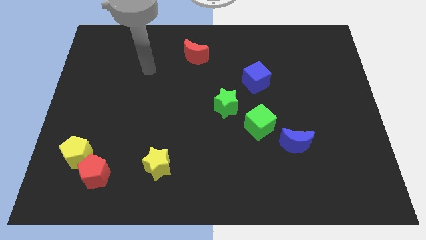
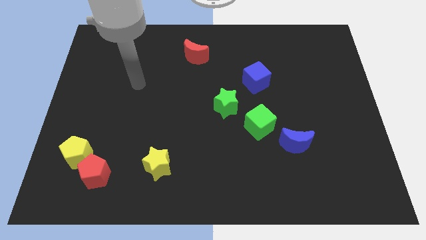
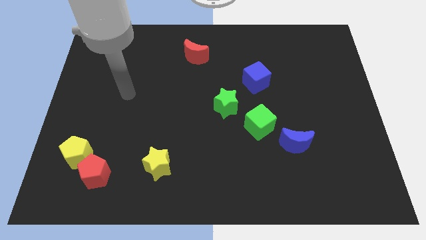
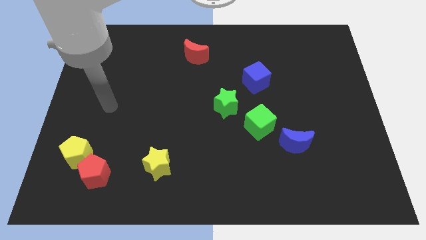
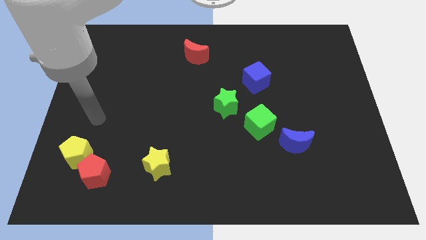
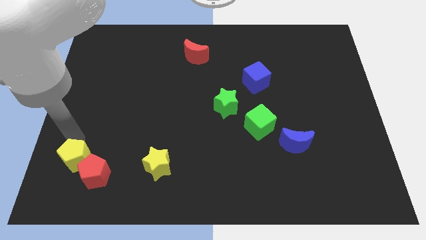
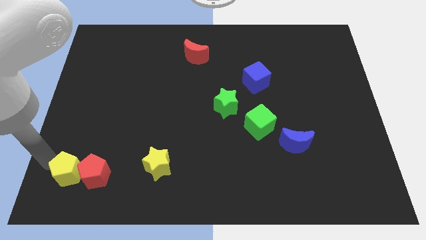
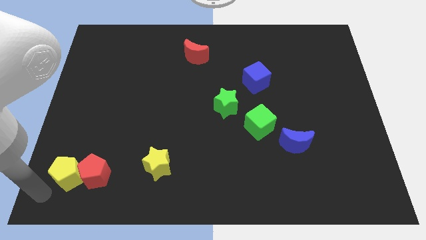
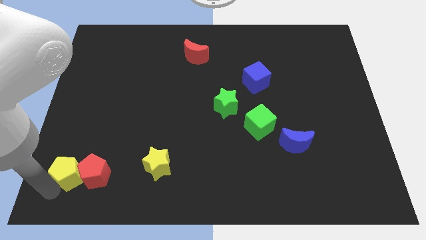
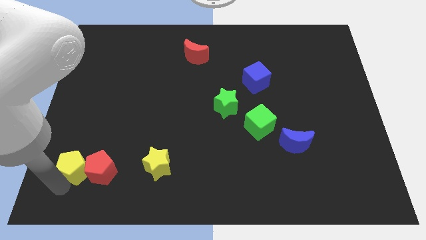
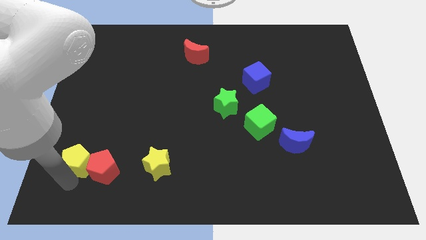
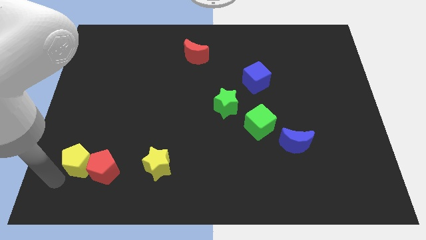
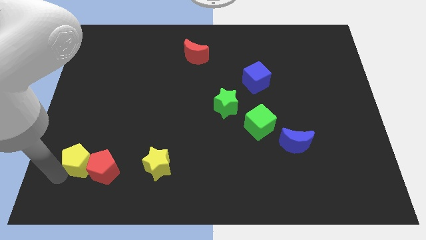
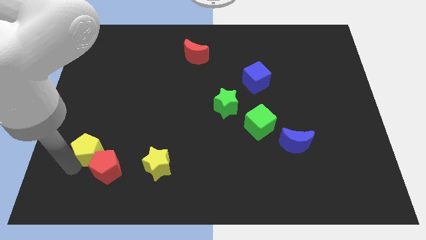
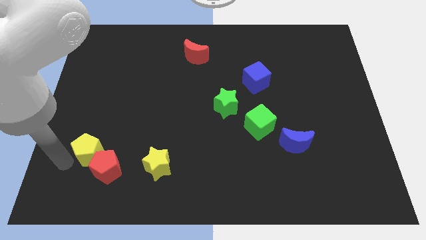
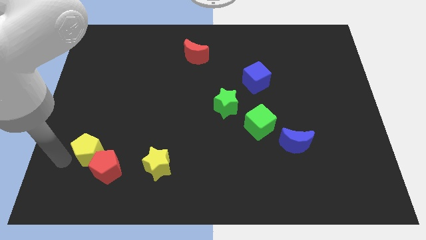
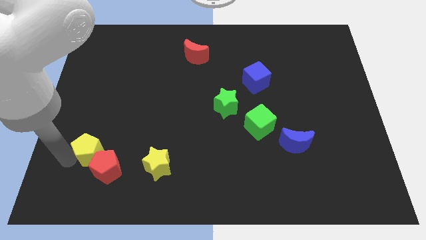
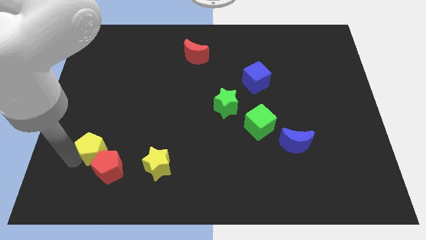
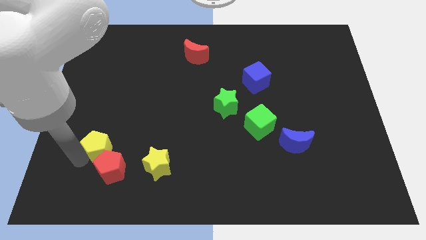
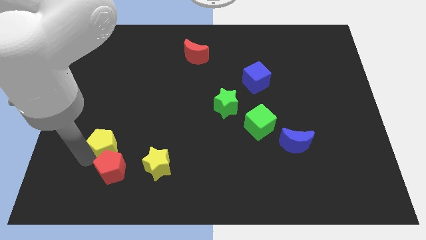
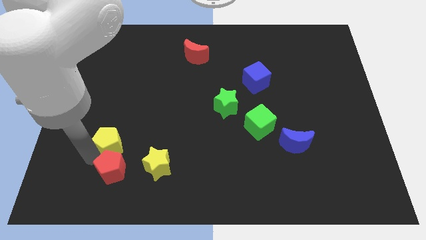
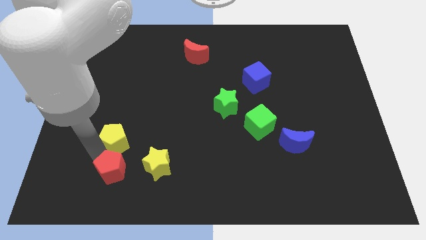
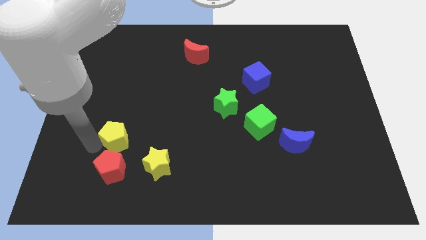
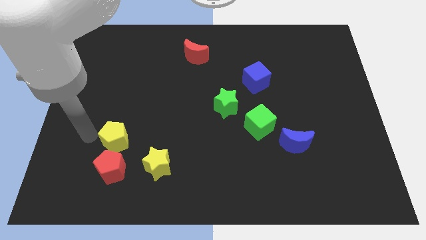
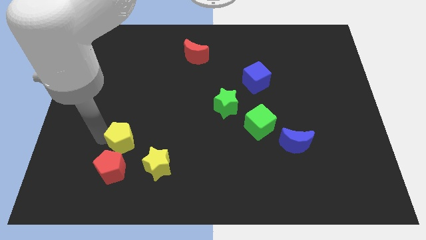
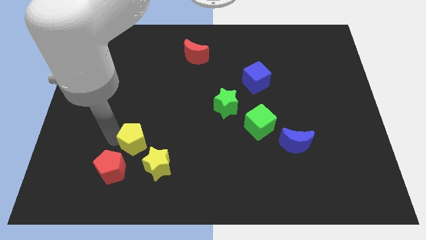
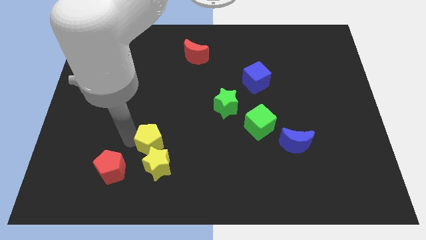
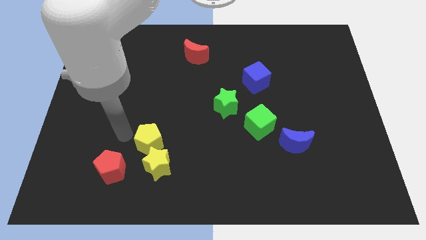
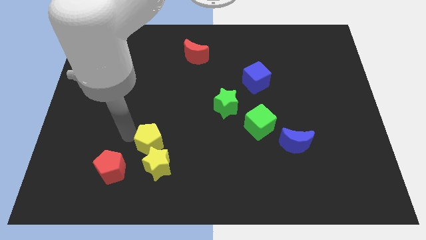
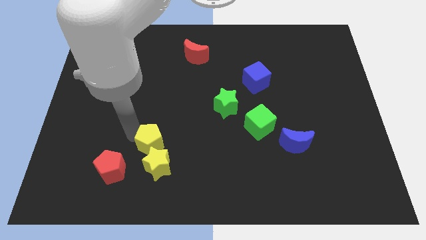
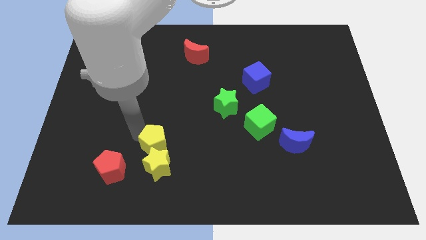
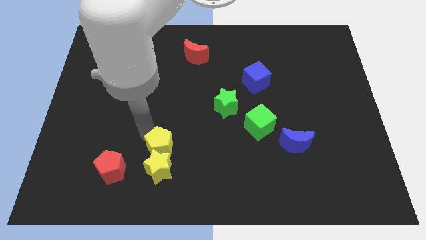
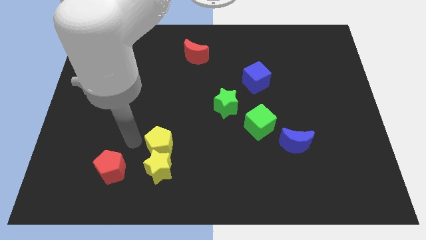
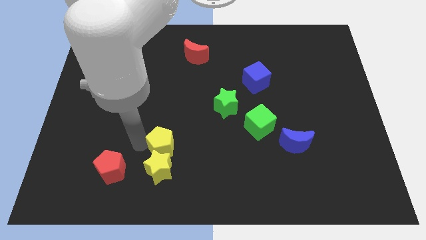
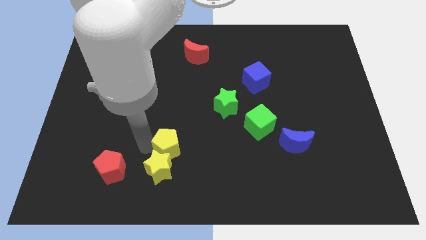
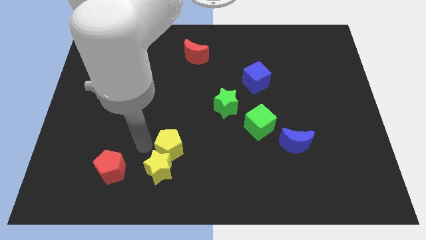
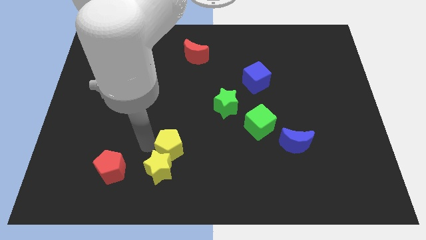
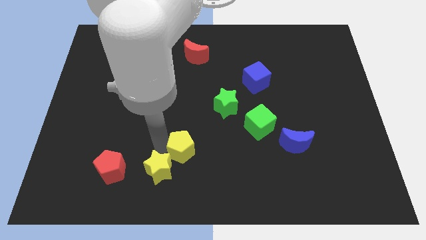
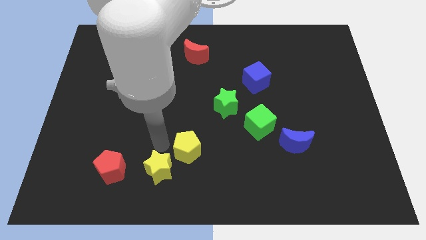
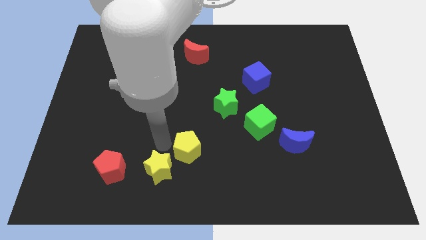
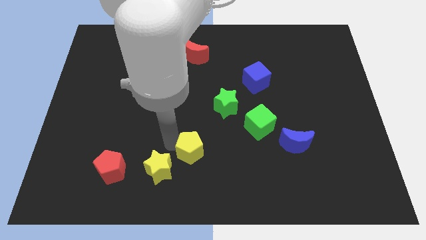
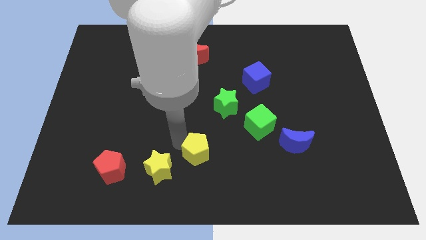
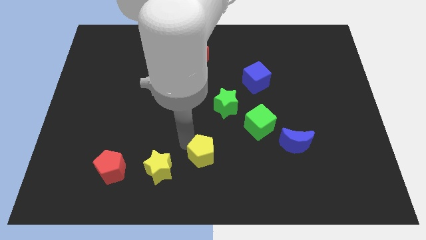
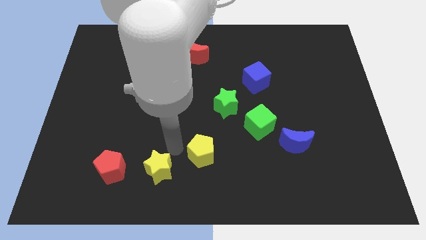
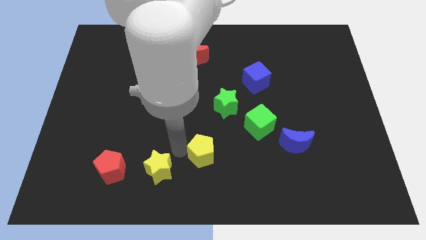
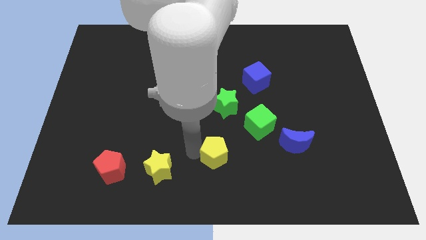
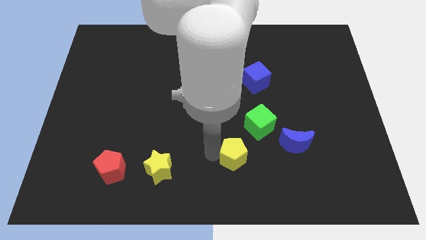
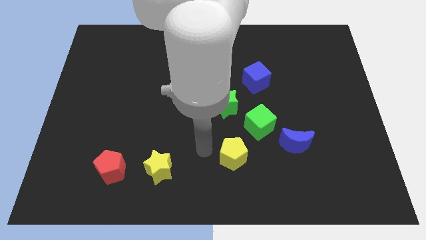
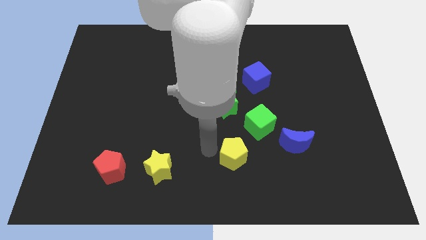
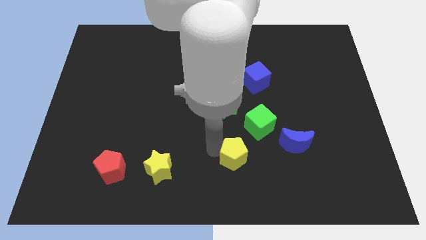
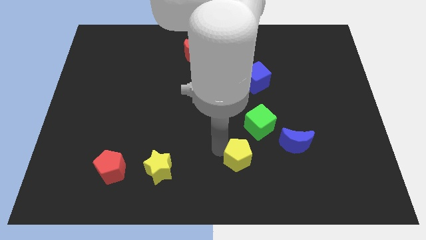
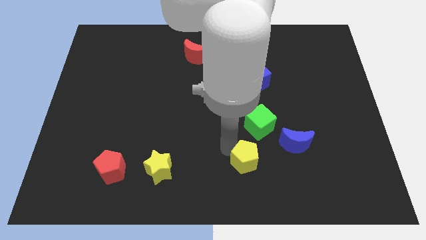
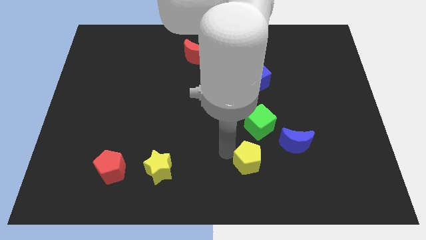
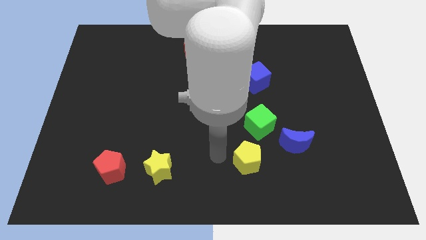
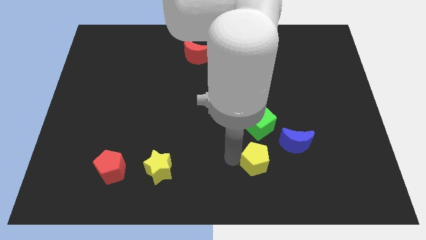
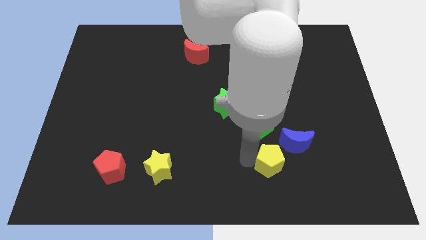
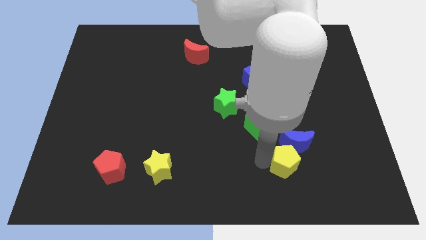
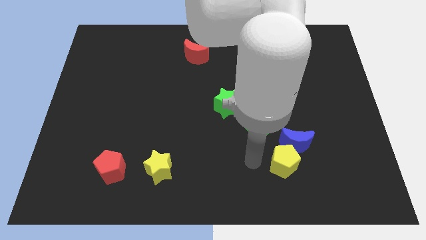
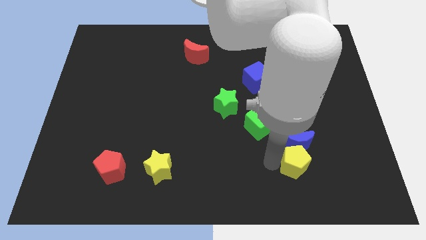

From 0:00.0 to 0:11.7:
move the yellow pentagon to the bottom right side of the blue moon

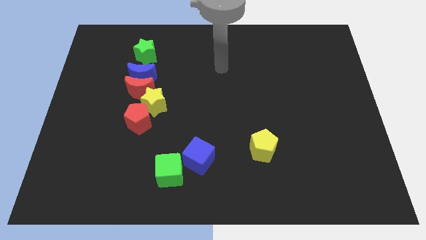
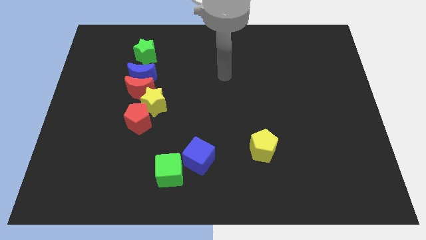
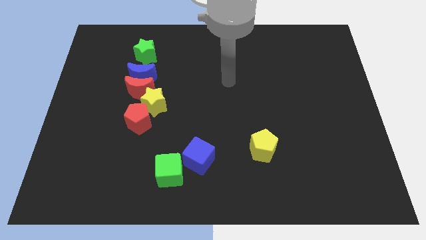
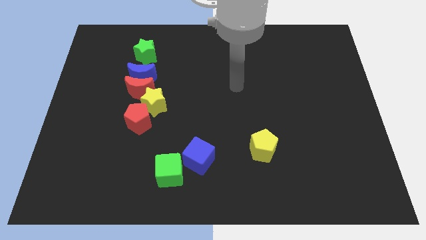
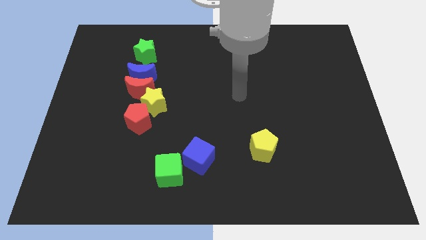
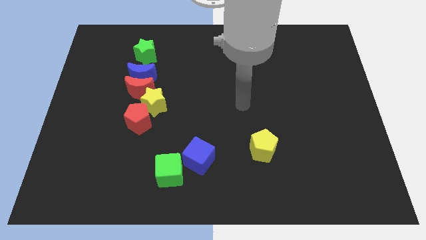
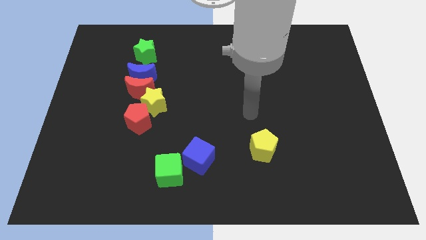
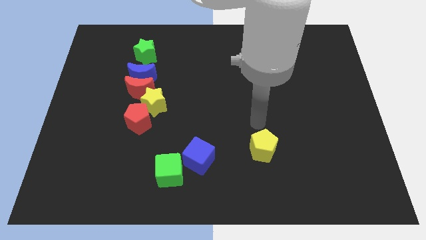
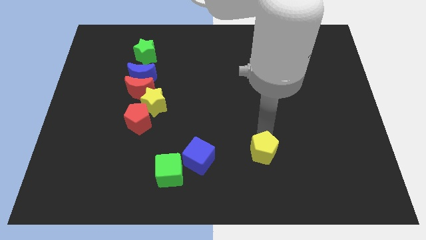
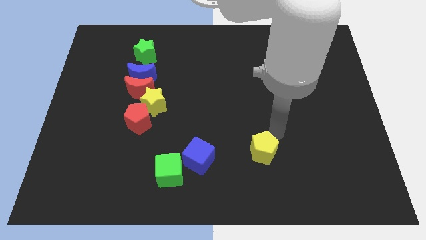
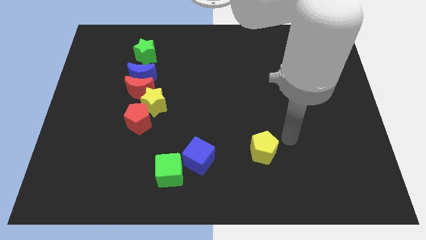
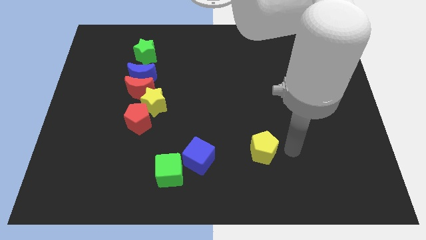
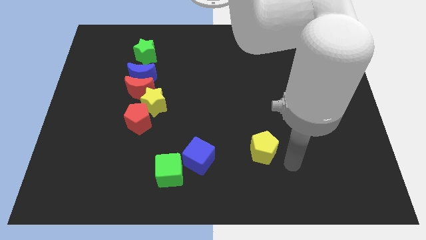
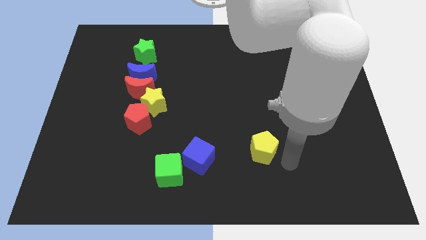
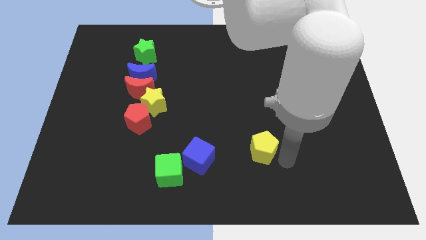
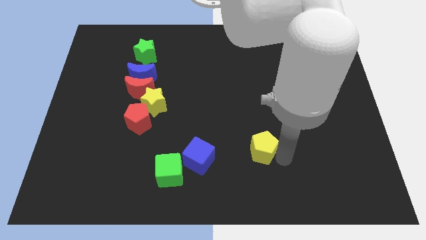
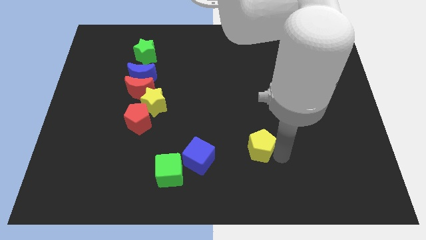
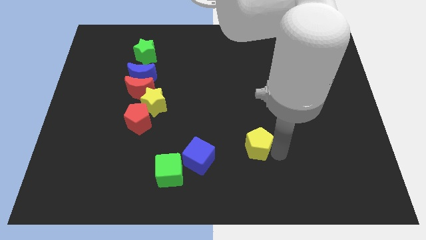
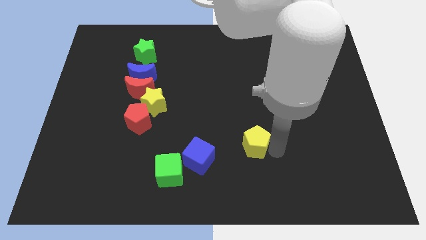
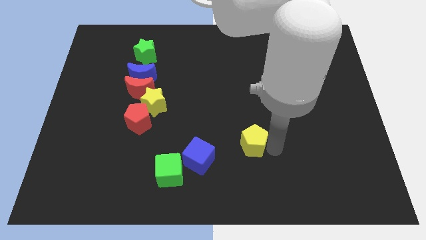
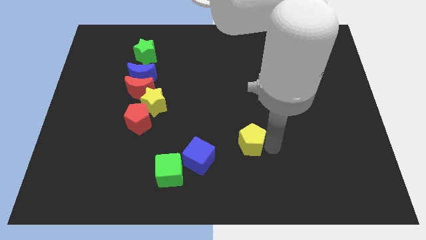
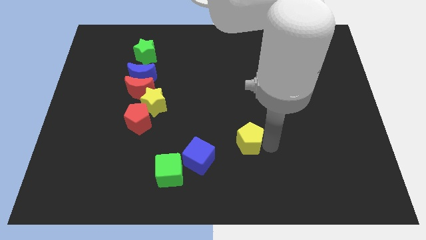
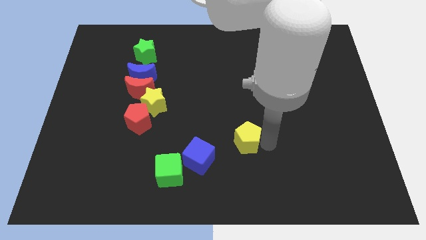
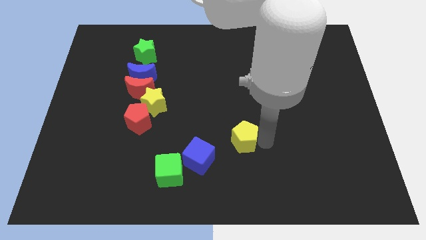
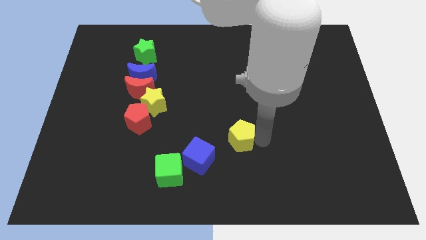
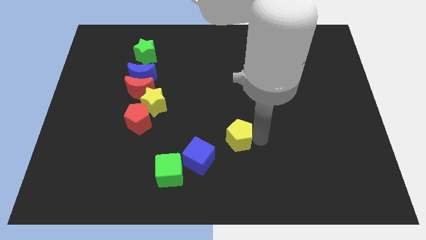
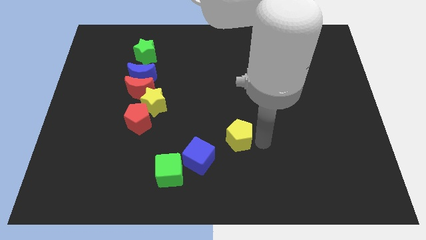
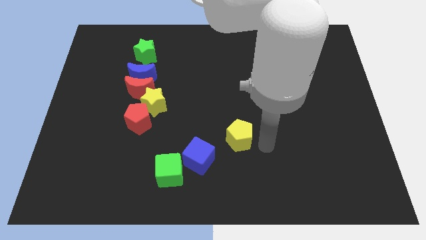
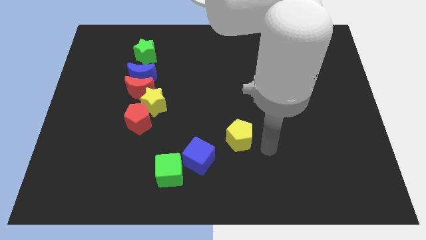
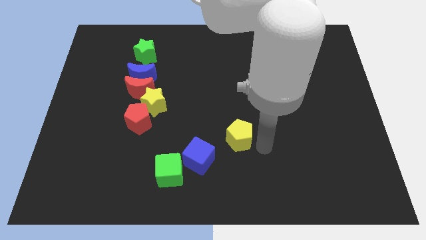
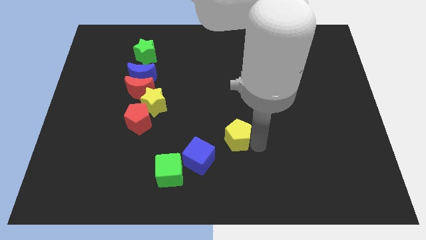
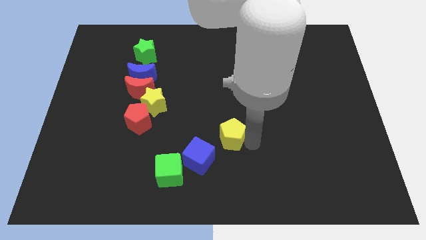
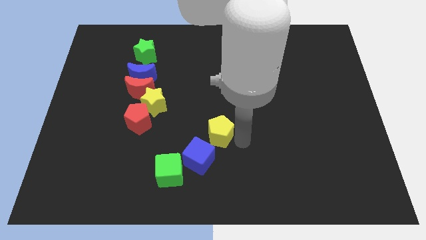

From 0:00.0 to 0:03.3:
put the yellow pentagon above the blue cube
